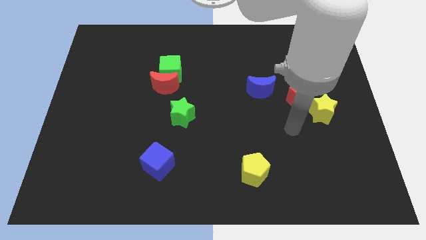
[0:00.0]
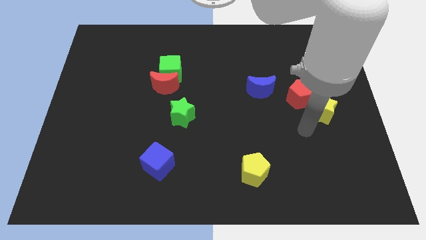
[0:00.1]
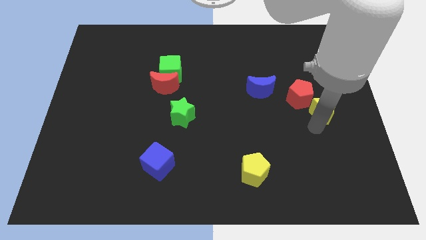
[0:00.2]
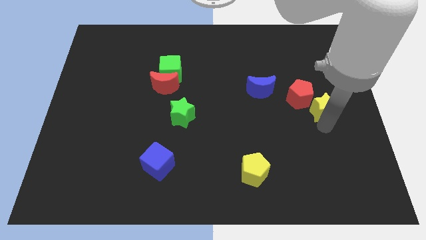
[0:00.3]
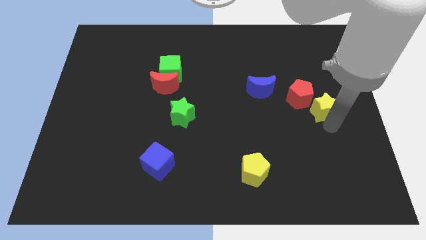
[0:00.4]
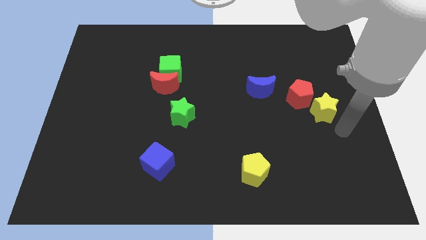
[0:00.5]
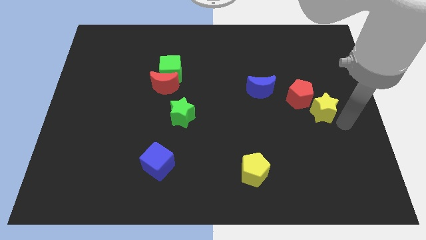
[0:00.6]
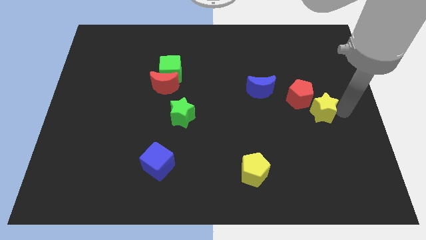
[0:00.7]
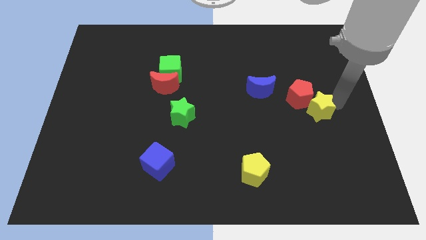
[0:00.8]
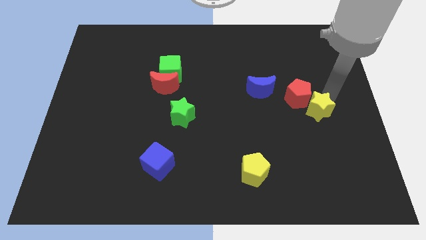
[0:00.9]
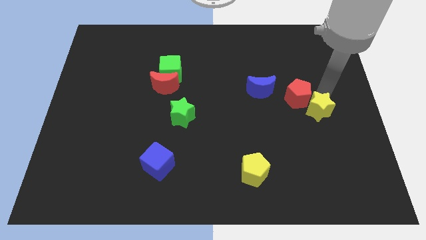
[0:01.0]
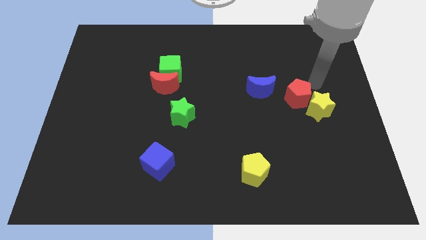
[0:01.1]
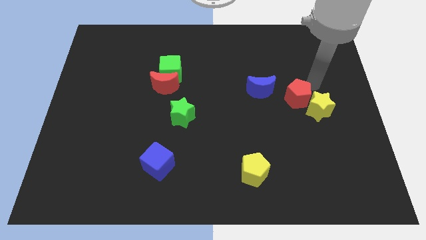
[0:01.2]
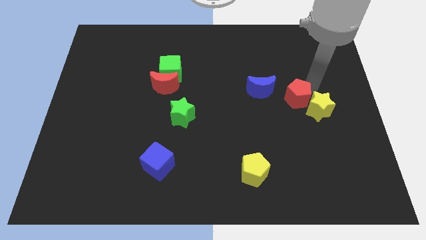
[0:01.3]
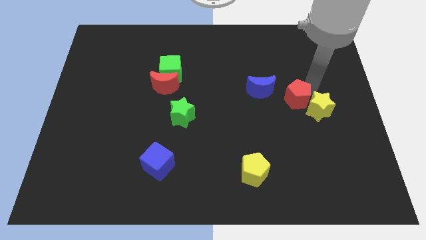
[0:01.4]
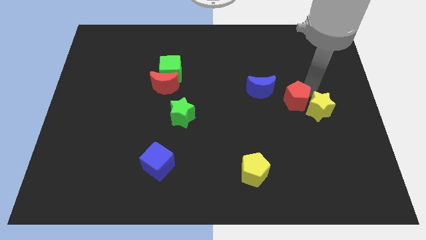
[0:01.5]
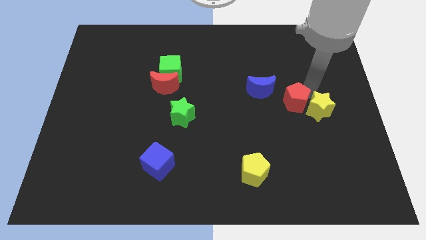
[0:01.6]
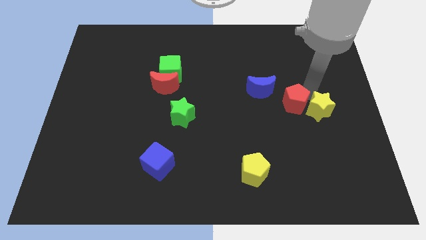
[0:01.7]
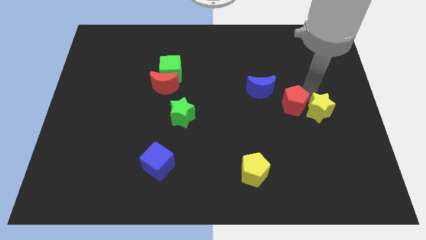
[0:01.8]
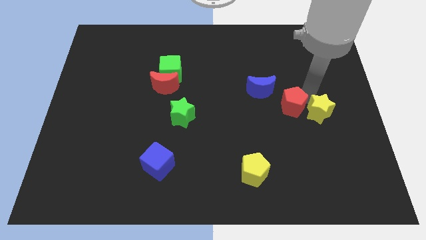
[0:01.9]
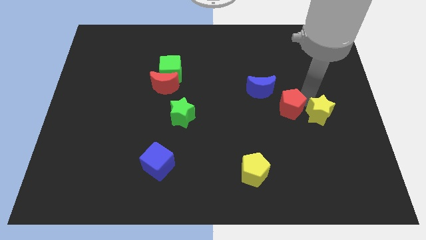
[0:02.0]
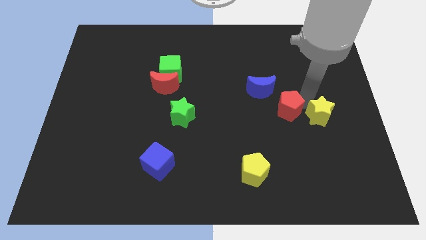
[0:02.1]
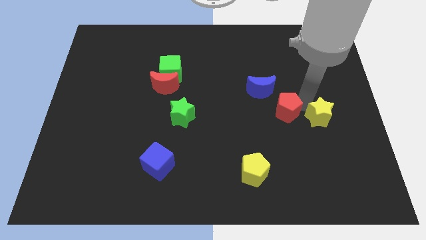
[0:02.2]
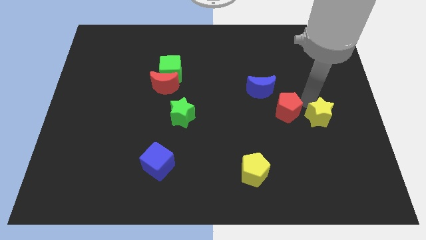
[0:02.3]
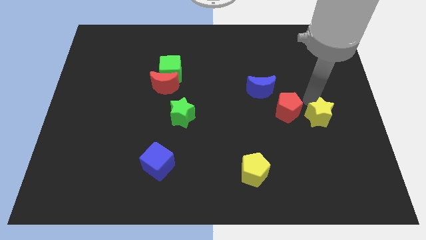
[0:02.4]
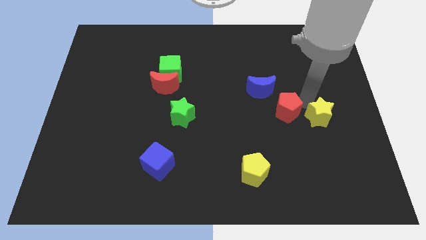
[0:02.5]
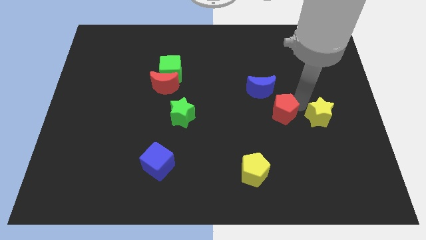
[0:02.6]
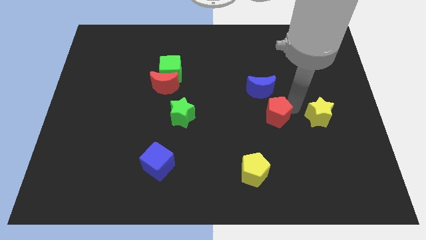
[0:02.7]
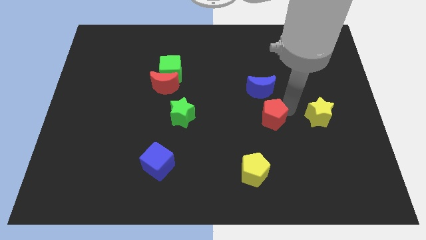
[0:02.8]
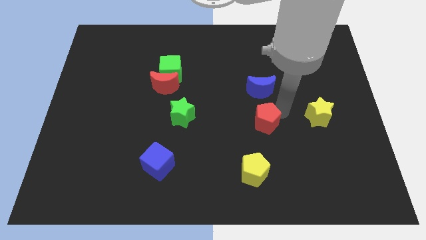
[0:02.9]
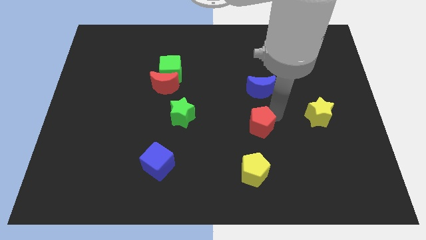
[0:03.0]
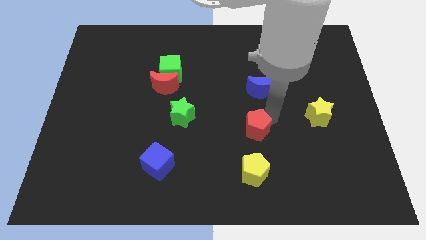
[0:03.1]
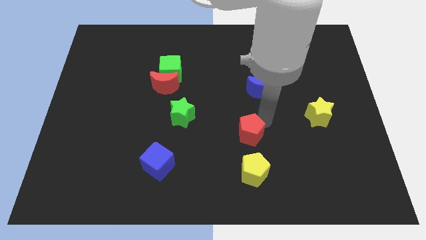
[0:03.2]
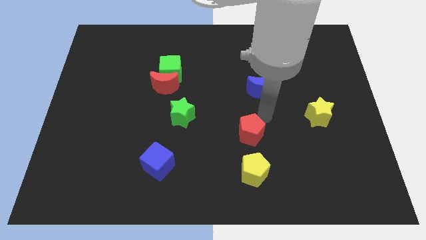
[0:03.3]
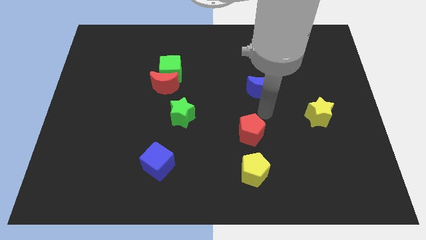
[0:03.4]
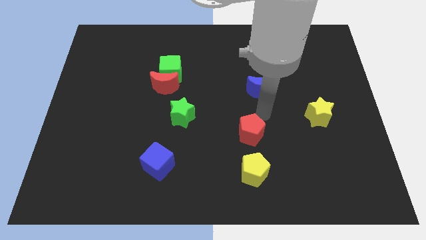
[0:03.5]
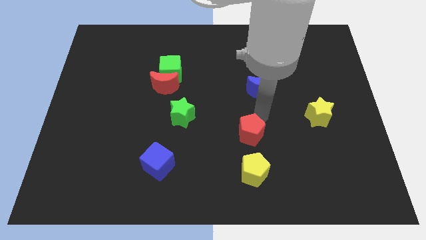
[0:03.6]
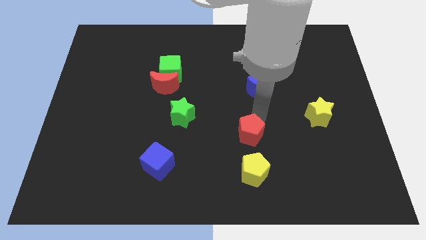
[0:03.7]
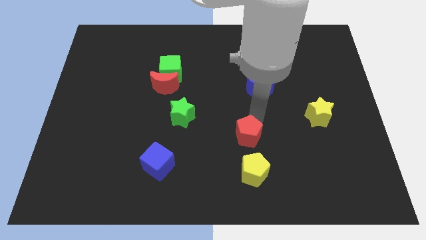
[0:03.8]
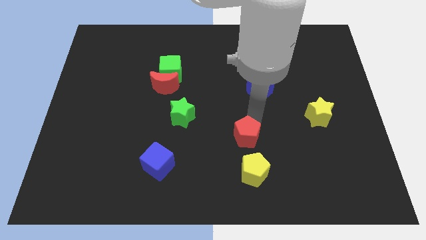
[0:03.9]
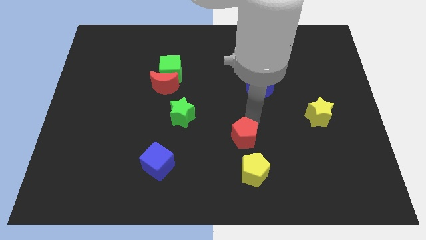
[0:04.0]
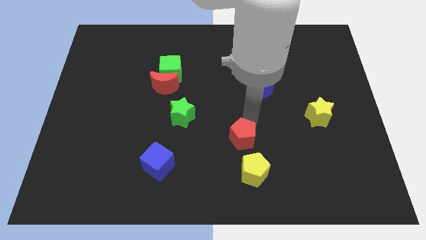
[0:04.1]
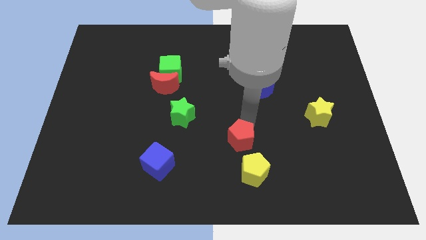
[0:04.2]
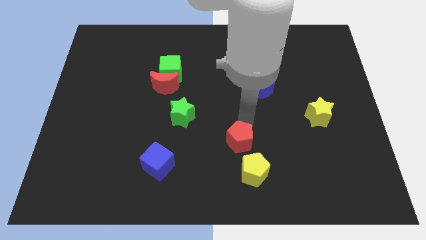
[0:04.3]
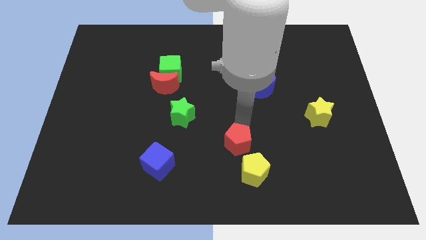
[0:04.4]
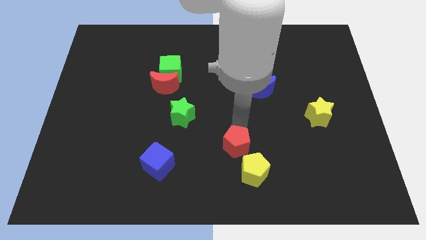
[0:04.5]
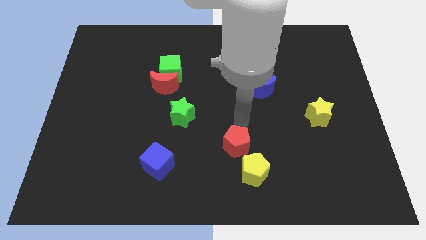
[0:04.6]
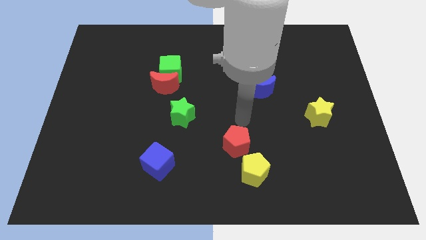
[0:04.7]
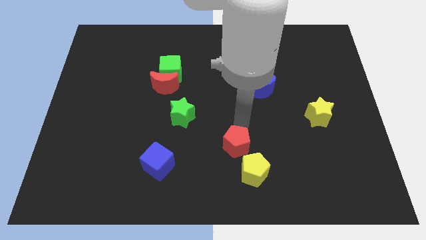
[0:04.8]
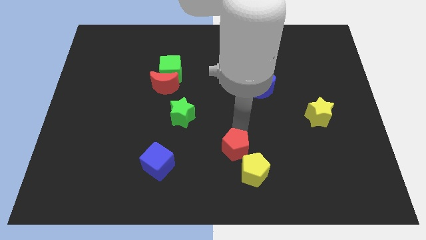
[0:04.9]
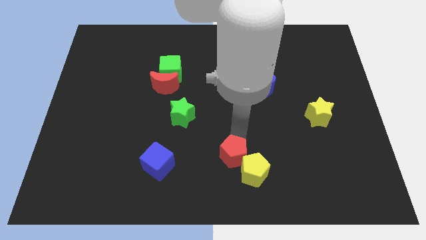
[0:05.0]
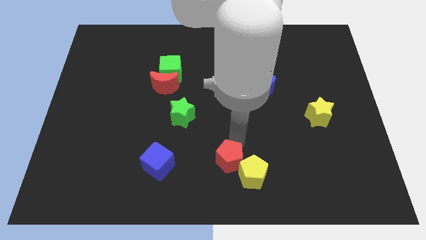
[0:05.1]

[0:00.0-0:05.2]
slide the red pentagon to the bottom

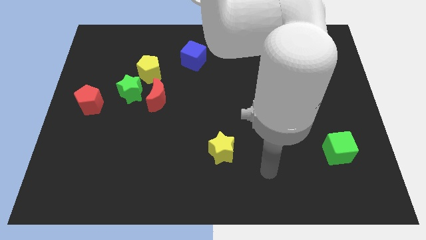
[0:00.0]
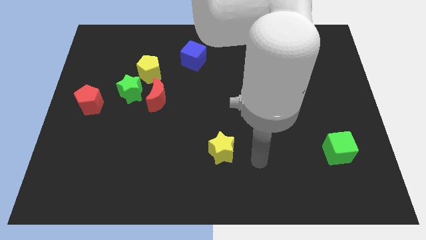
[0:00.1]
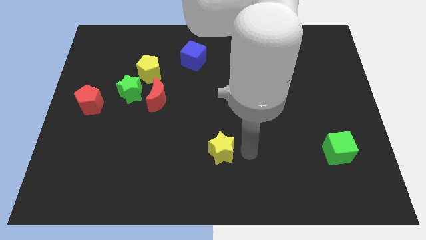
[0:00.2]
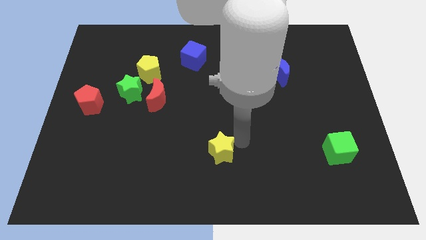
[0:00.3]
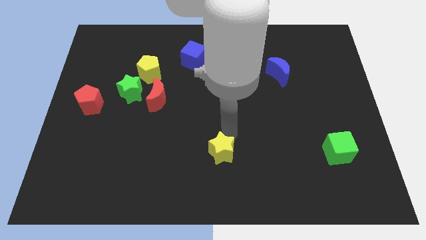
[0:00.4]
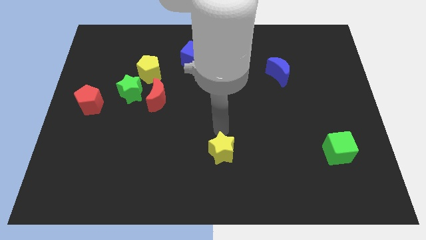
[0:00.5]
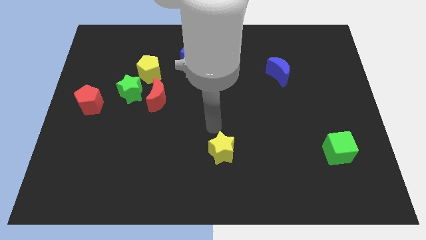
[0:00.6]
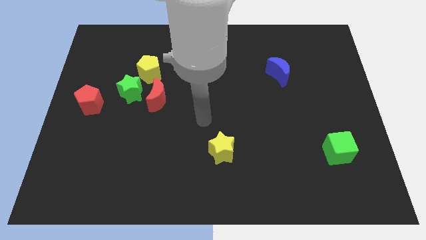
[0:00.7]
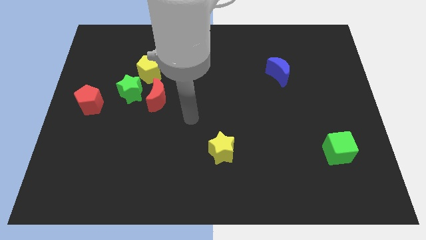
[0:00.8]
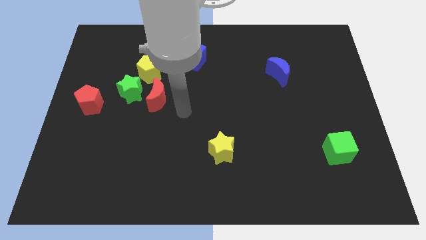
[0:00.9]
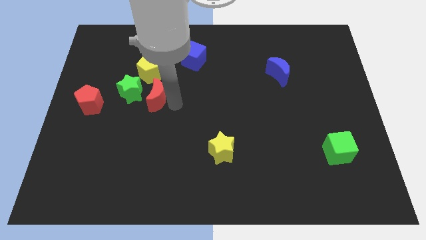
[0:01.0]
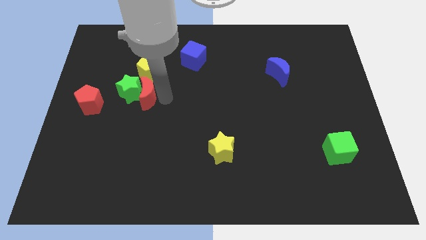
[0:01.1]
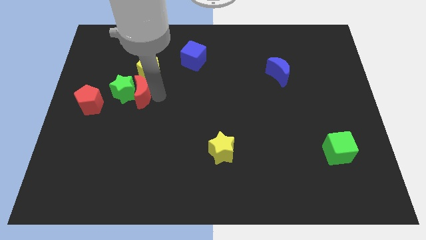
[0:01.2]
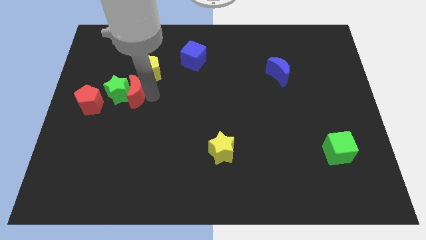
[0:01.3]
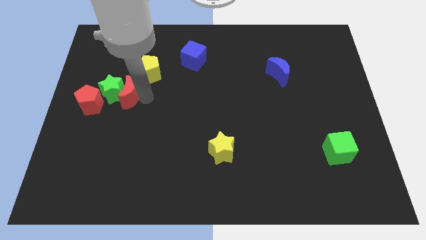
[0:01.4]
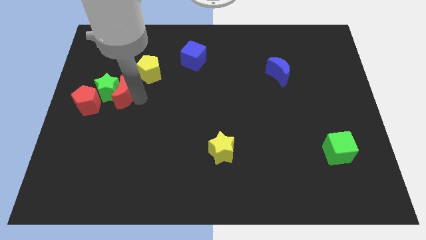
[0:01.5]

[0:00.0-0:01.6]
slide the green star to the left side of the board

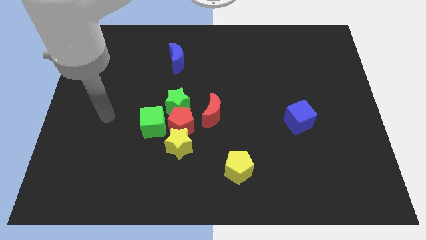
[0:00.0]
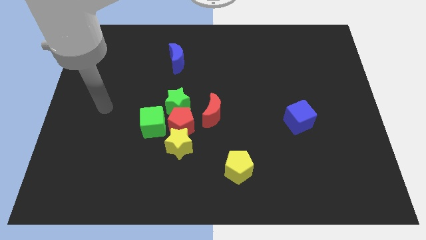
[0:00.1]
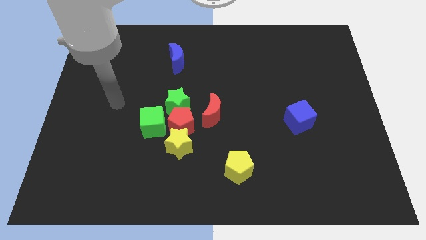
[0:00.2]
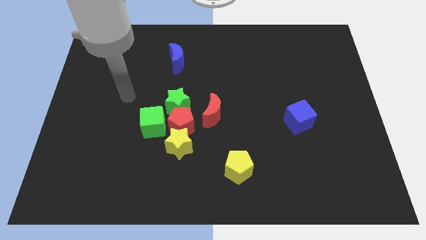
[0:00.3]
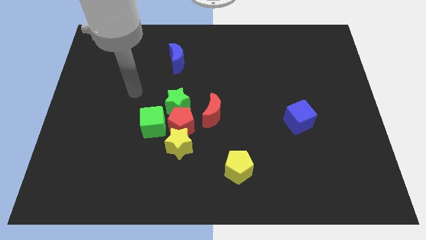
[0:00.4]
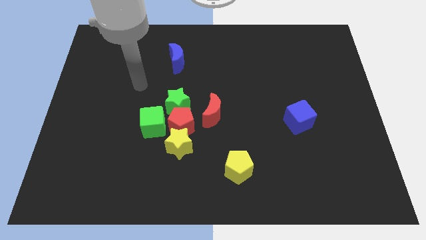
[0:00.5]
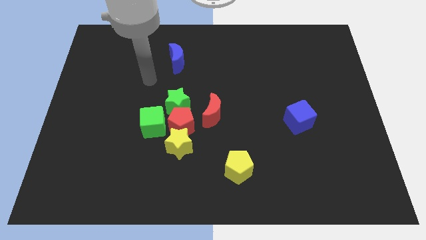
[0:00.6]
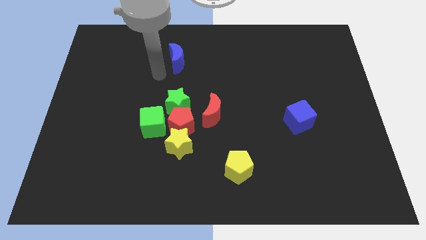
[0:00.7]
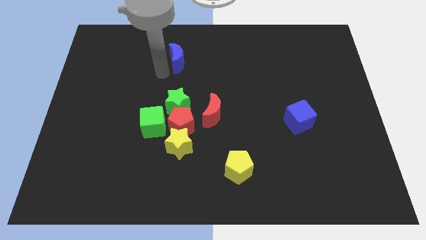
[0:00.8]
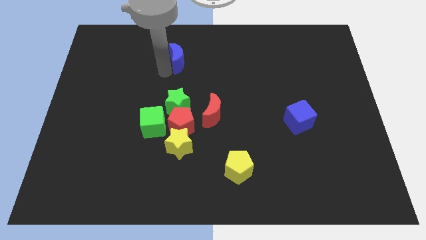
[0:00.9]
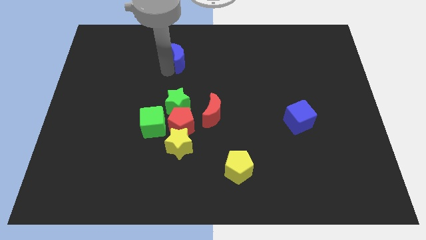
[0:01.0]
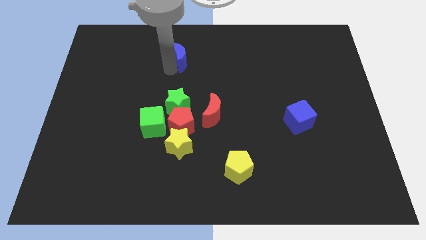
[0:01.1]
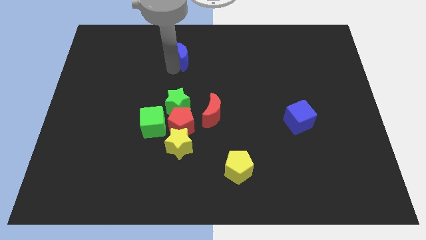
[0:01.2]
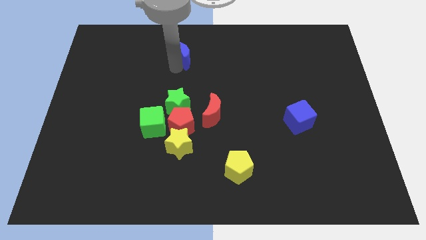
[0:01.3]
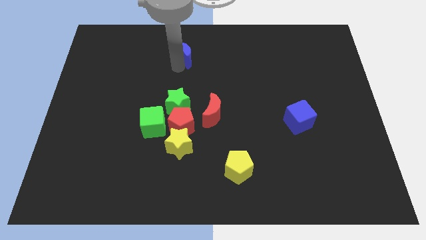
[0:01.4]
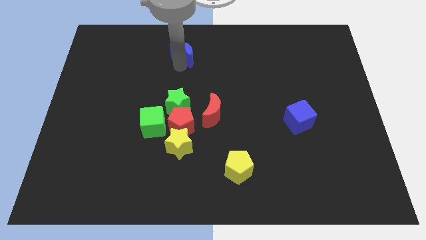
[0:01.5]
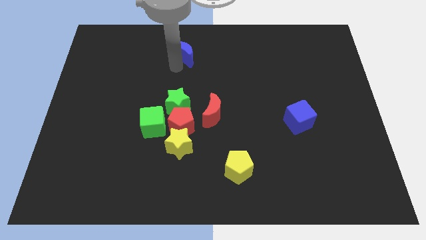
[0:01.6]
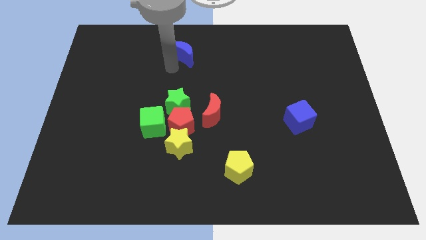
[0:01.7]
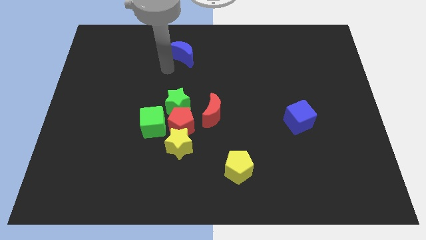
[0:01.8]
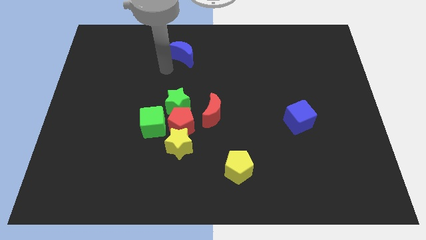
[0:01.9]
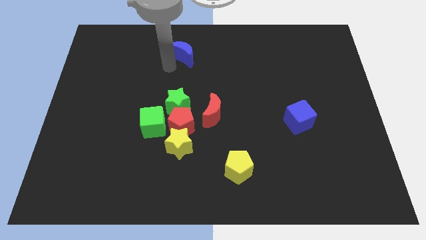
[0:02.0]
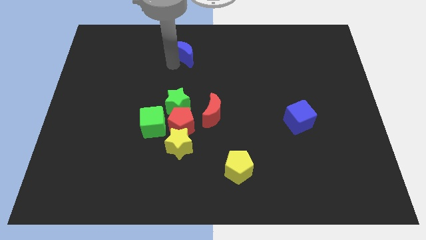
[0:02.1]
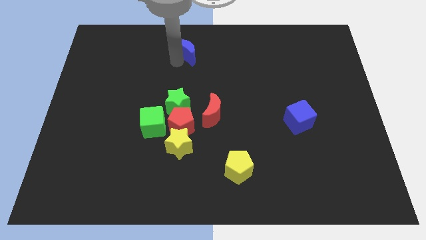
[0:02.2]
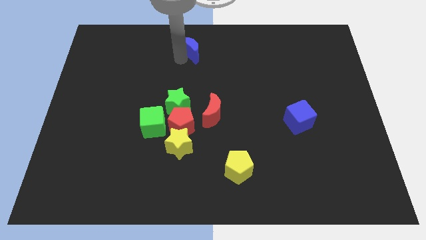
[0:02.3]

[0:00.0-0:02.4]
slide the blue moon to the top side
